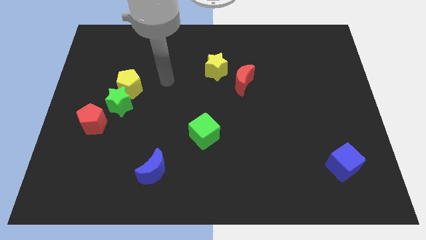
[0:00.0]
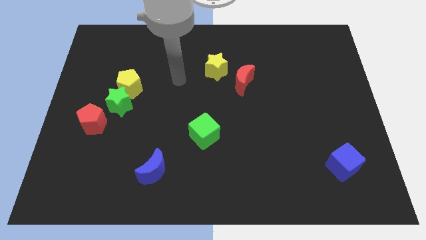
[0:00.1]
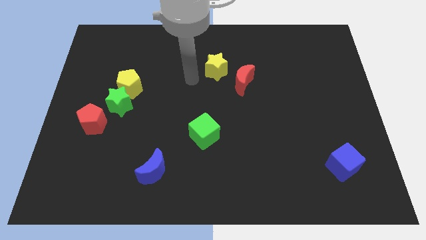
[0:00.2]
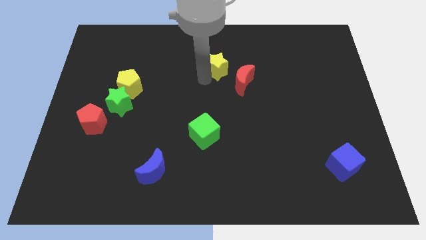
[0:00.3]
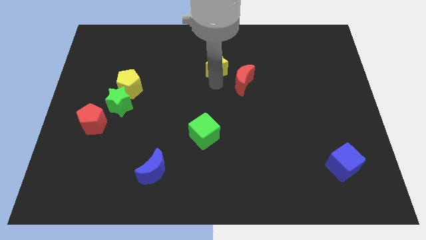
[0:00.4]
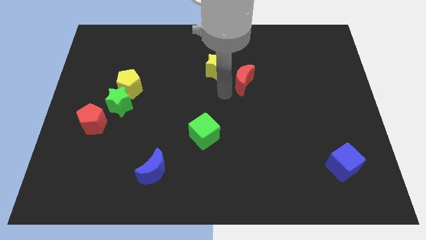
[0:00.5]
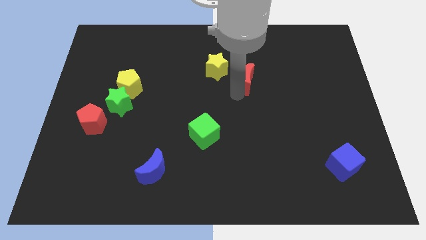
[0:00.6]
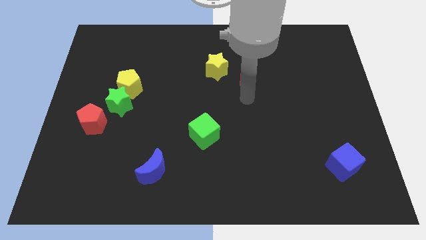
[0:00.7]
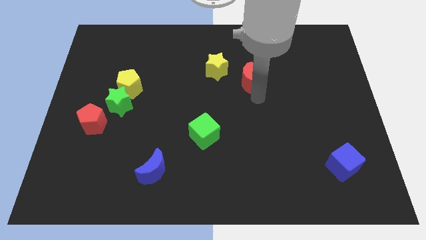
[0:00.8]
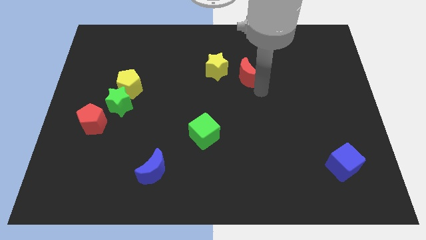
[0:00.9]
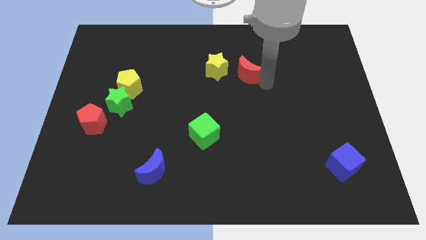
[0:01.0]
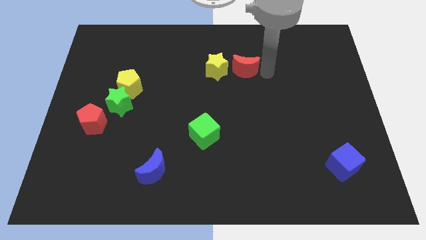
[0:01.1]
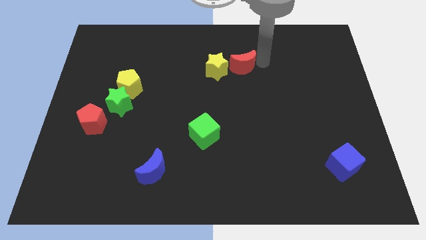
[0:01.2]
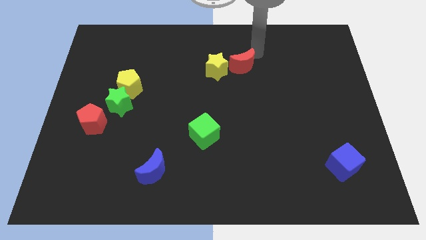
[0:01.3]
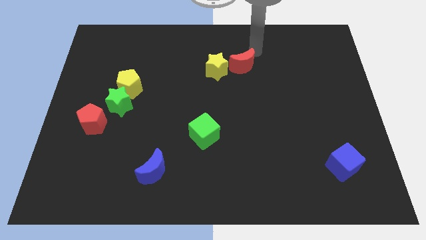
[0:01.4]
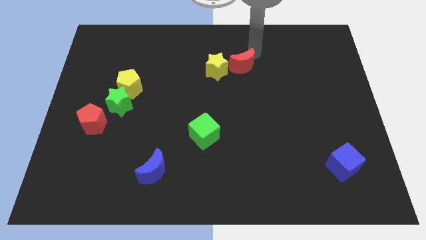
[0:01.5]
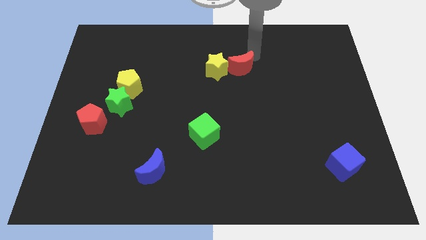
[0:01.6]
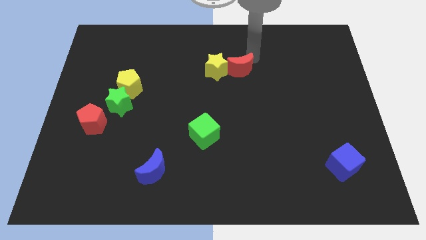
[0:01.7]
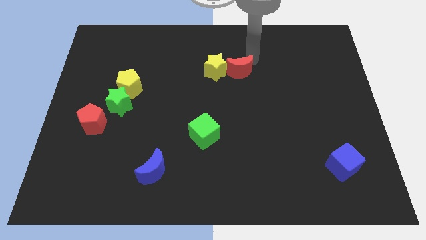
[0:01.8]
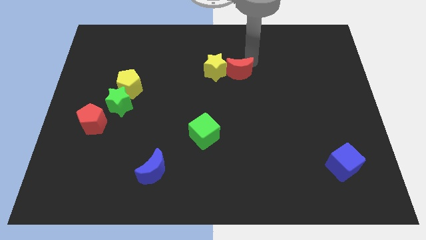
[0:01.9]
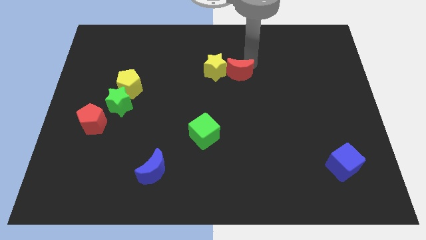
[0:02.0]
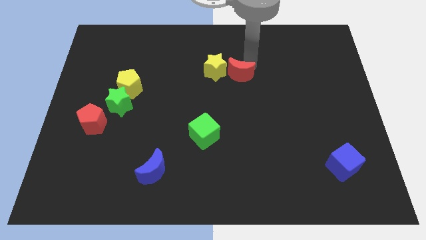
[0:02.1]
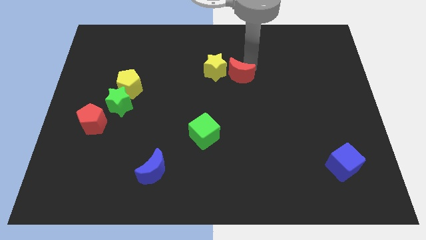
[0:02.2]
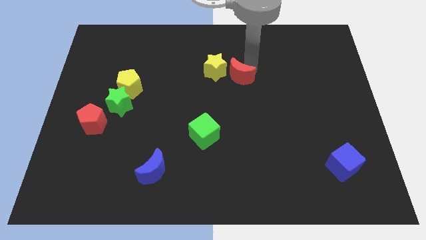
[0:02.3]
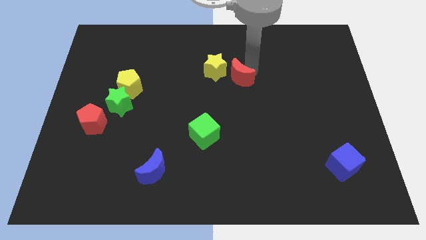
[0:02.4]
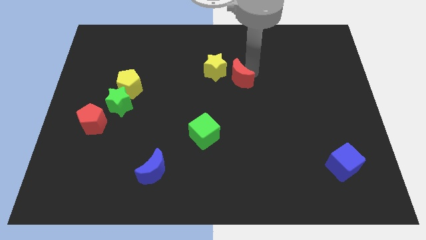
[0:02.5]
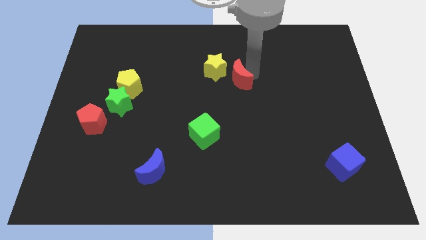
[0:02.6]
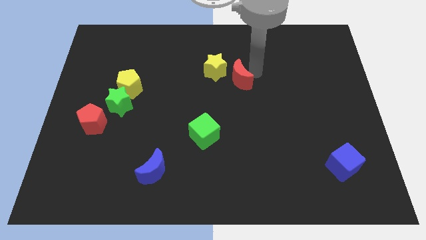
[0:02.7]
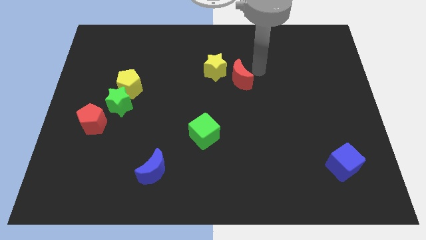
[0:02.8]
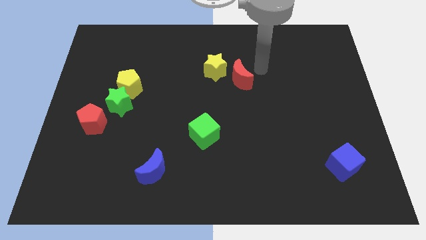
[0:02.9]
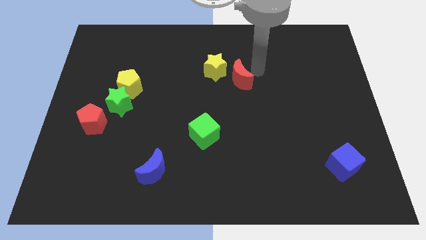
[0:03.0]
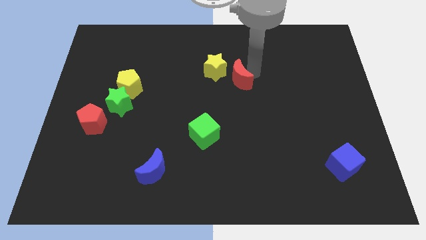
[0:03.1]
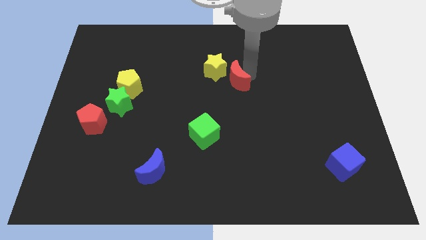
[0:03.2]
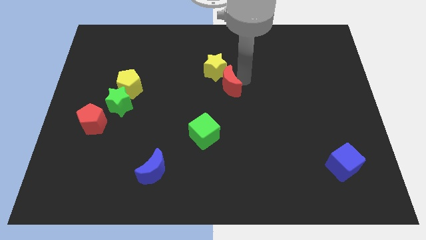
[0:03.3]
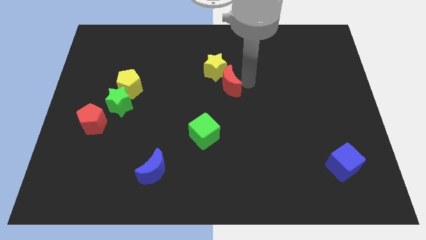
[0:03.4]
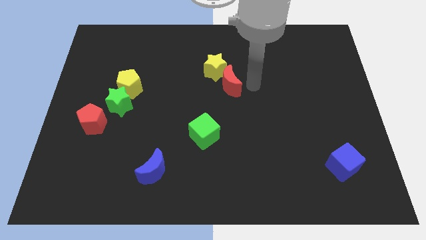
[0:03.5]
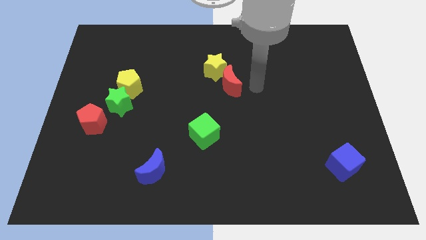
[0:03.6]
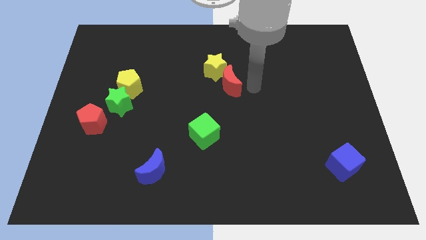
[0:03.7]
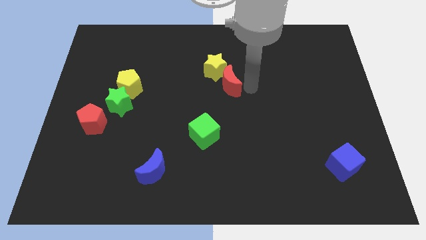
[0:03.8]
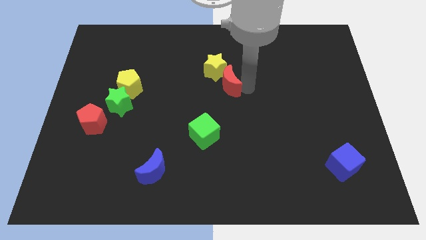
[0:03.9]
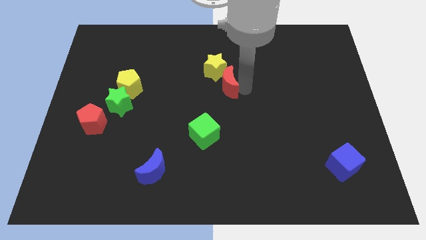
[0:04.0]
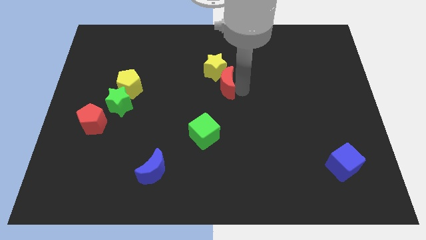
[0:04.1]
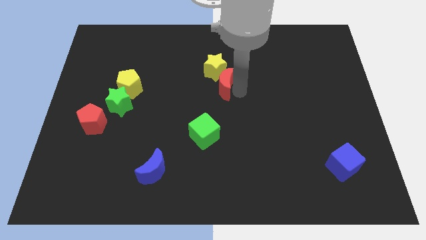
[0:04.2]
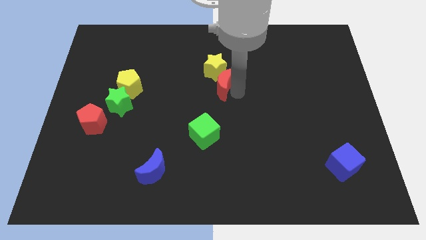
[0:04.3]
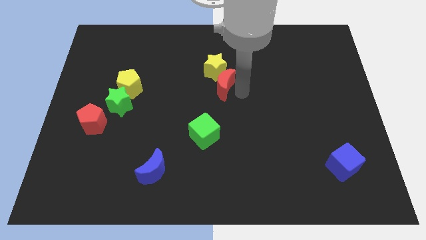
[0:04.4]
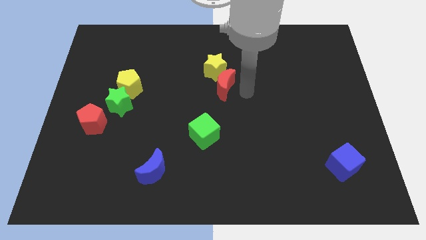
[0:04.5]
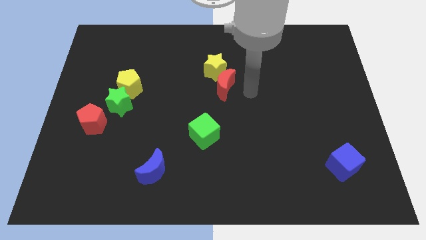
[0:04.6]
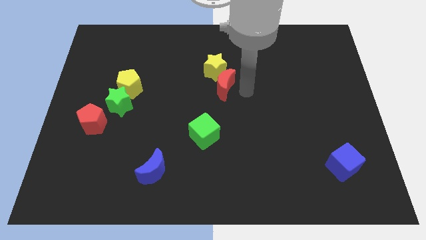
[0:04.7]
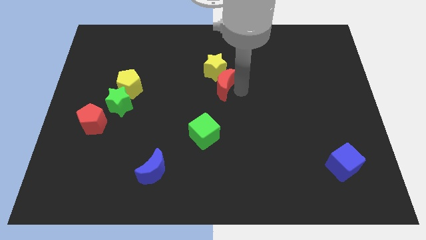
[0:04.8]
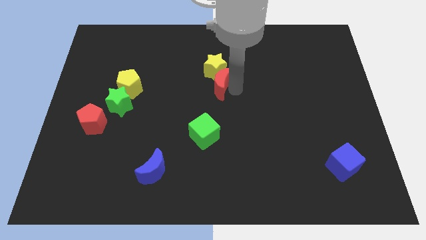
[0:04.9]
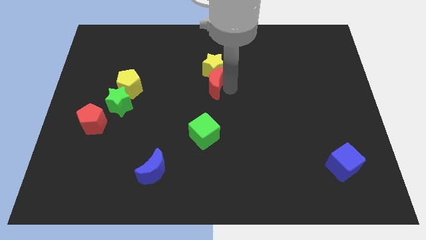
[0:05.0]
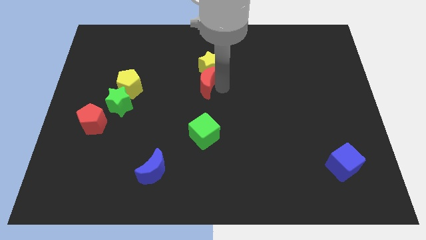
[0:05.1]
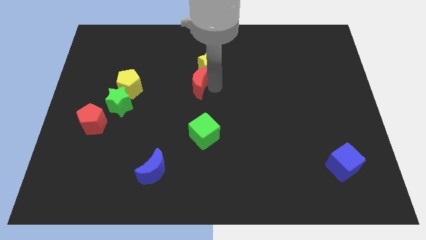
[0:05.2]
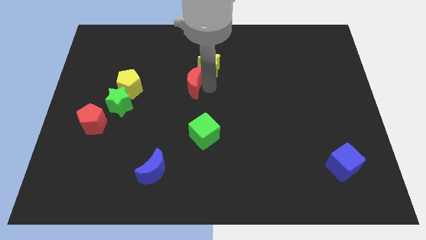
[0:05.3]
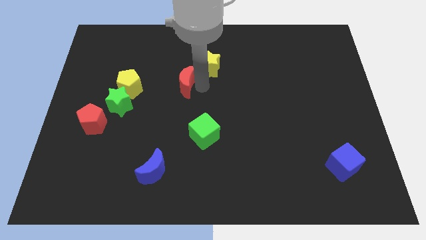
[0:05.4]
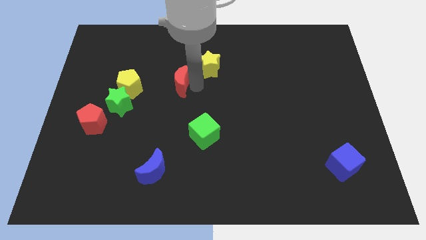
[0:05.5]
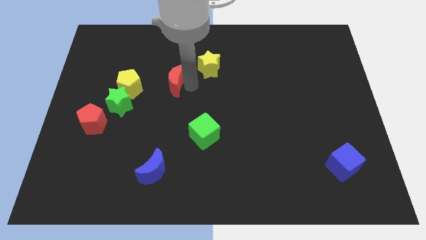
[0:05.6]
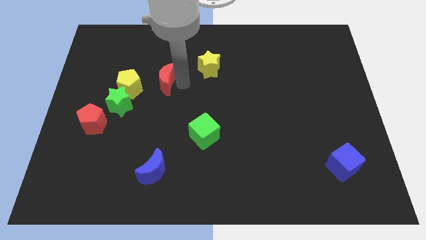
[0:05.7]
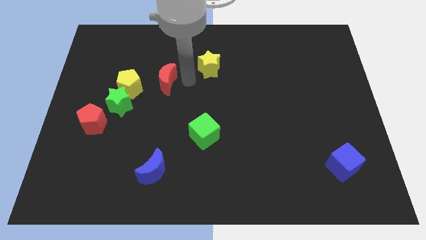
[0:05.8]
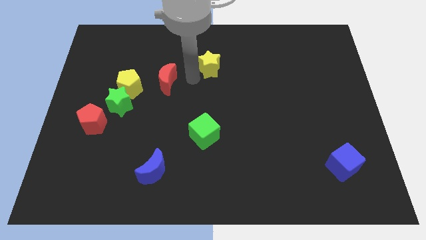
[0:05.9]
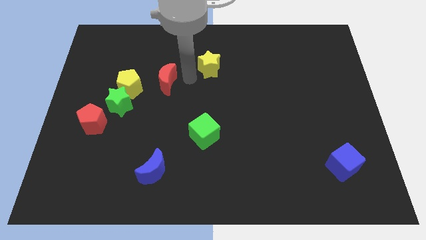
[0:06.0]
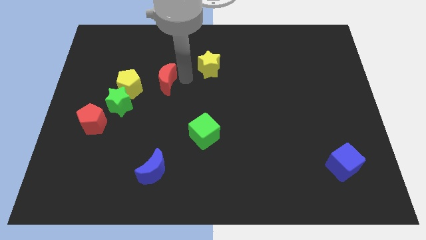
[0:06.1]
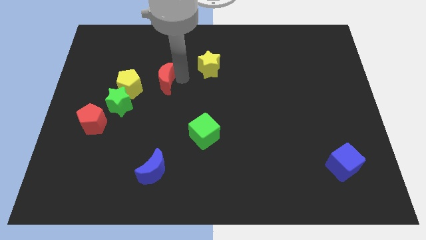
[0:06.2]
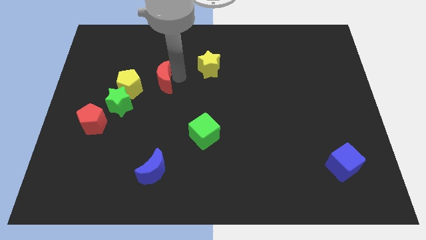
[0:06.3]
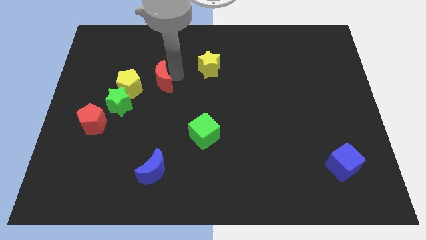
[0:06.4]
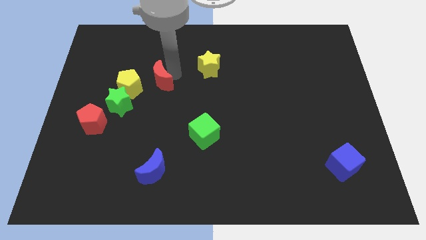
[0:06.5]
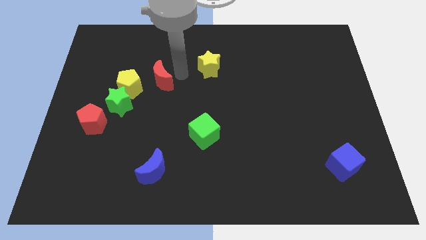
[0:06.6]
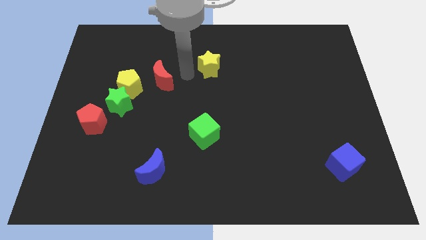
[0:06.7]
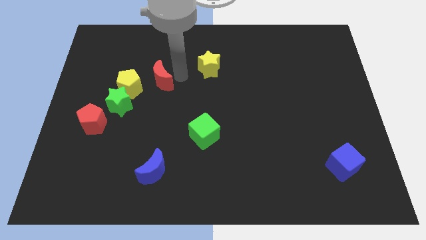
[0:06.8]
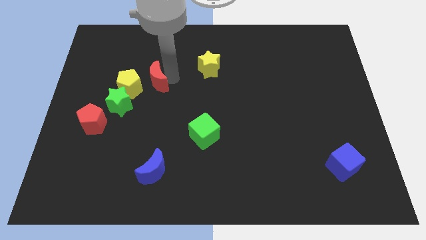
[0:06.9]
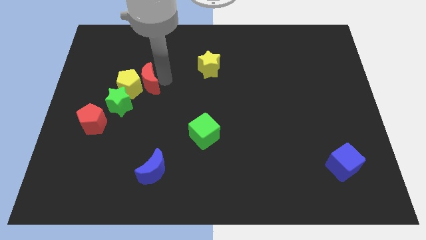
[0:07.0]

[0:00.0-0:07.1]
move the red moon close to the yellow pentagon

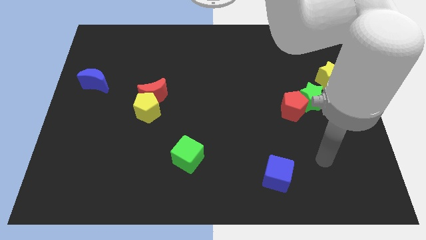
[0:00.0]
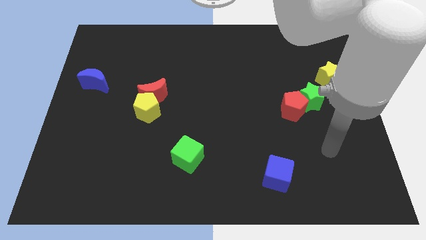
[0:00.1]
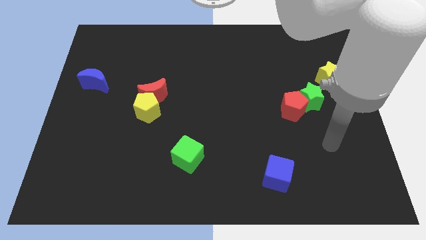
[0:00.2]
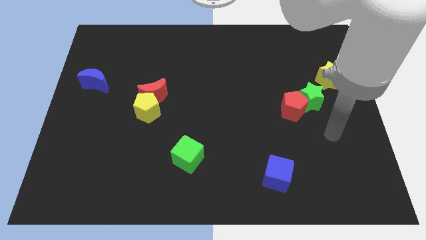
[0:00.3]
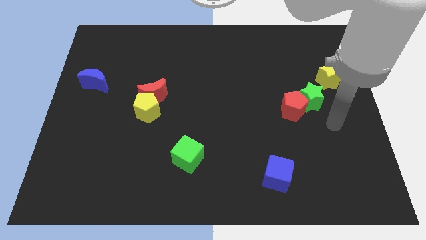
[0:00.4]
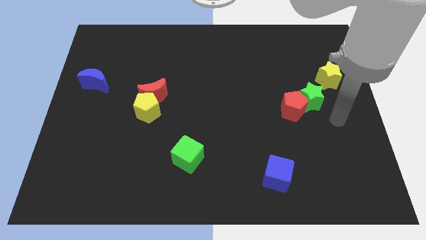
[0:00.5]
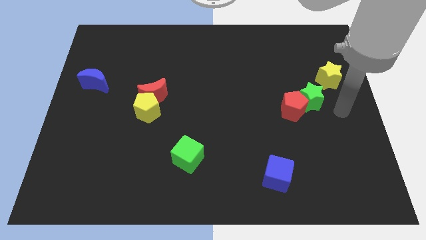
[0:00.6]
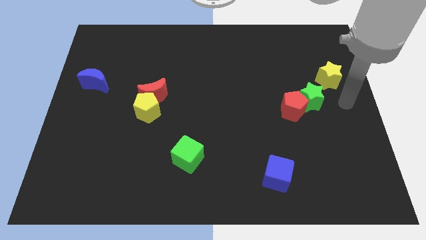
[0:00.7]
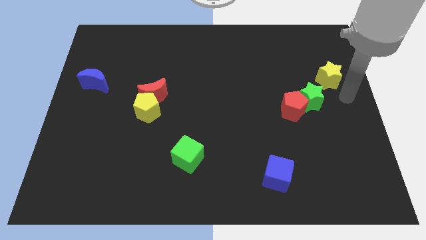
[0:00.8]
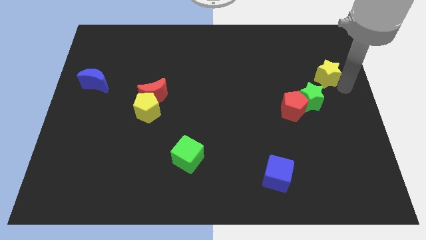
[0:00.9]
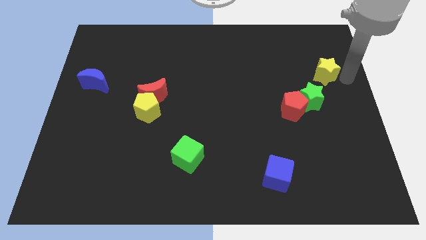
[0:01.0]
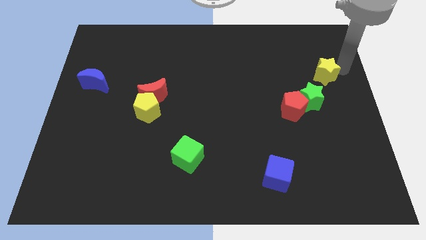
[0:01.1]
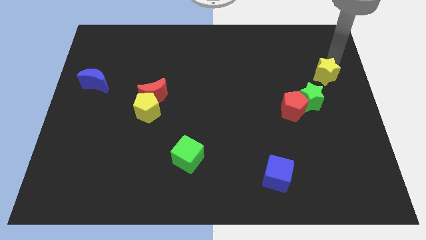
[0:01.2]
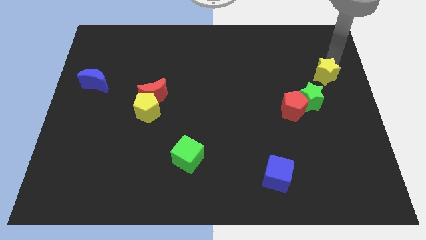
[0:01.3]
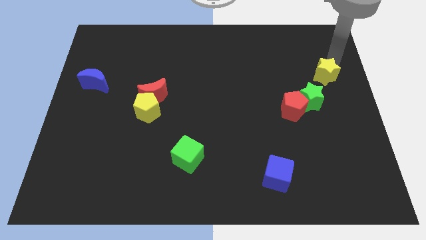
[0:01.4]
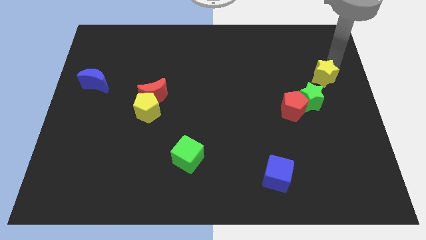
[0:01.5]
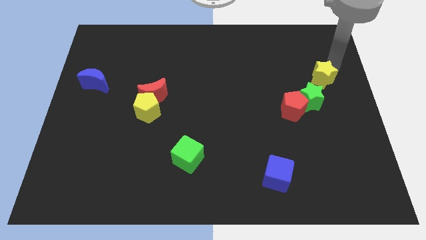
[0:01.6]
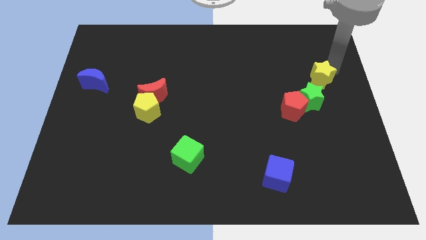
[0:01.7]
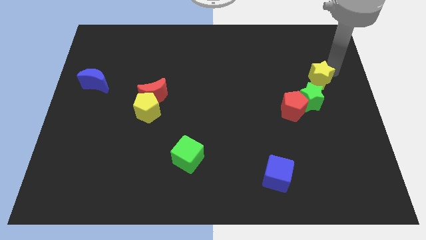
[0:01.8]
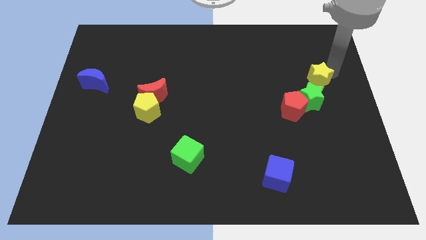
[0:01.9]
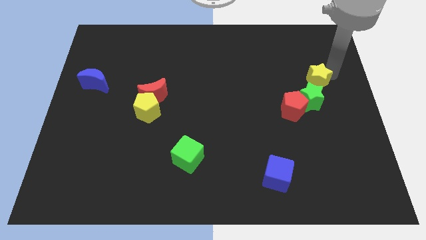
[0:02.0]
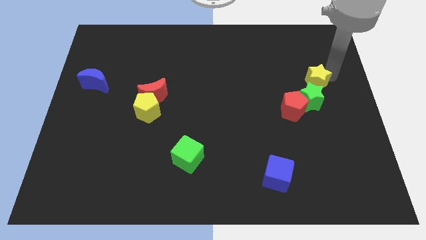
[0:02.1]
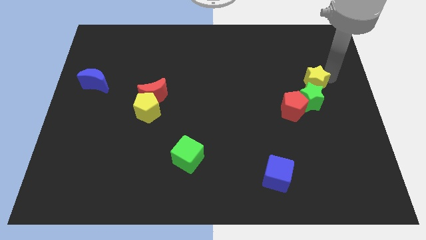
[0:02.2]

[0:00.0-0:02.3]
move the yellow star close to the green star
